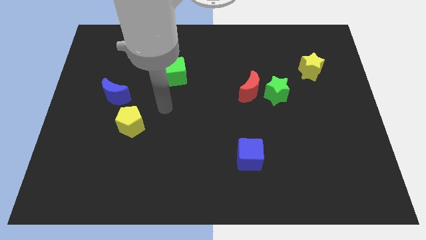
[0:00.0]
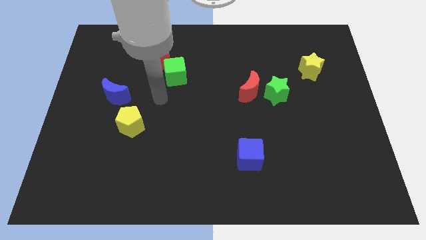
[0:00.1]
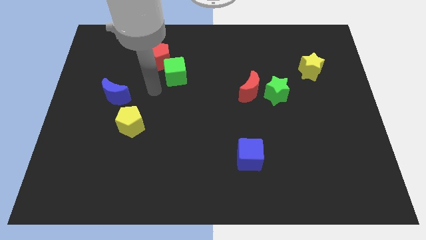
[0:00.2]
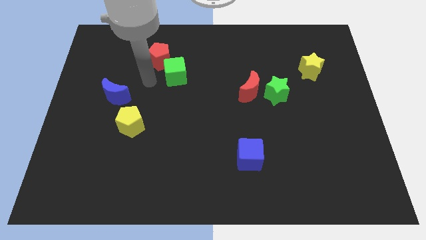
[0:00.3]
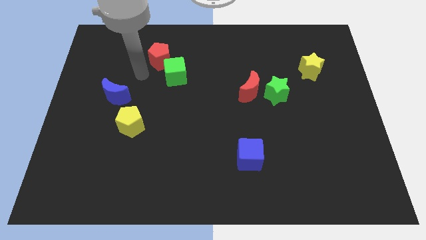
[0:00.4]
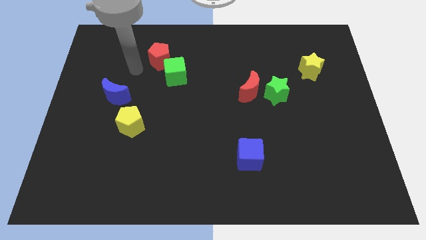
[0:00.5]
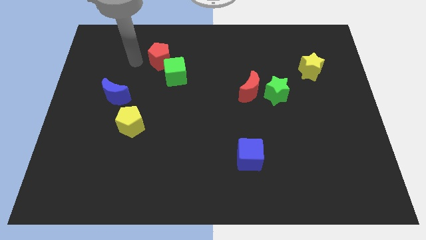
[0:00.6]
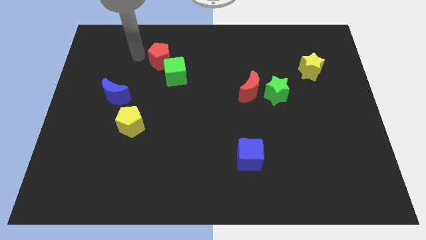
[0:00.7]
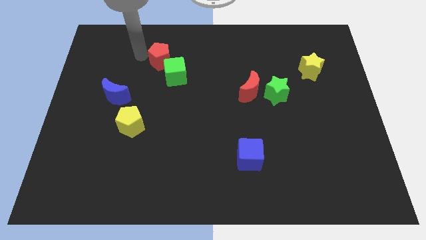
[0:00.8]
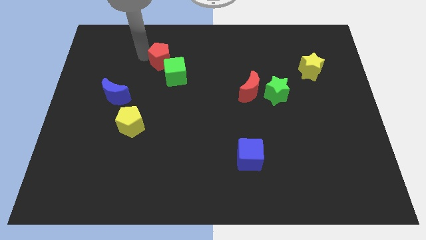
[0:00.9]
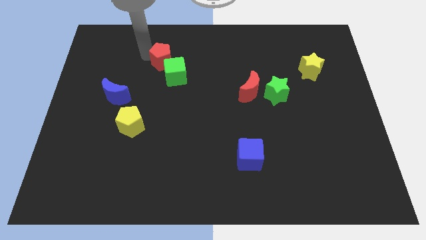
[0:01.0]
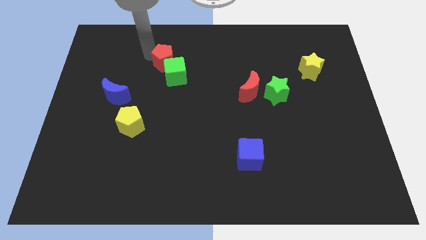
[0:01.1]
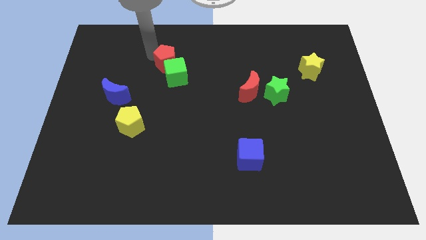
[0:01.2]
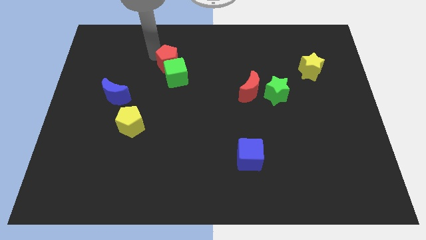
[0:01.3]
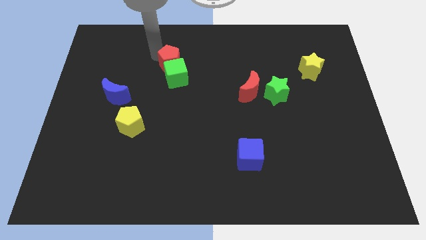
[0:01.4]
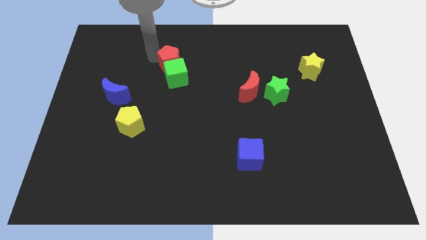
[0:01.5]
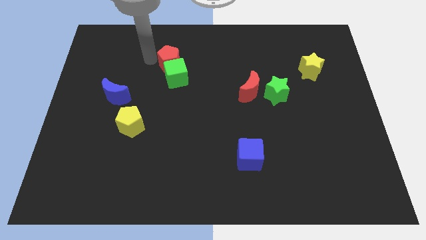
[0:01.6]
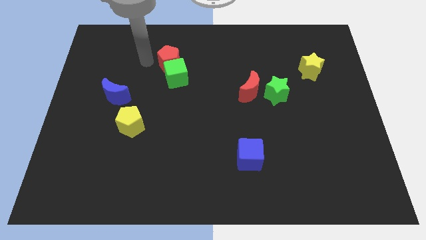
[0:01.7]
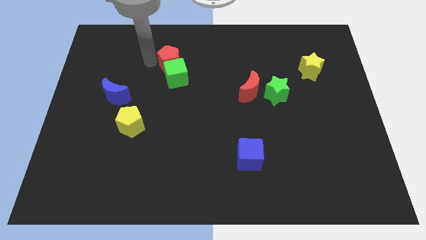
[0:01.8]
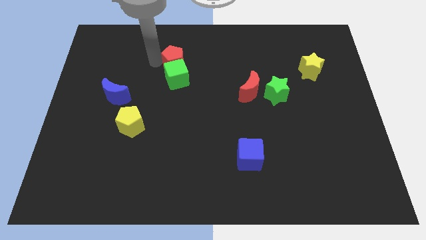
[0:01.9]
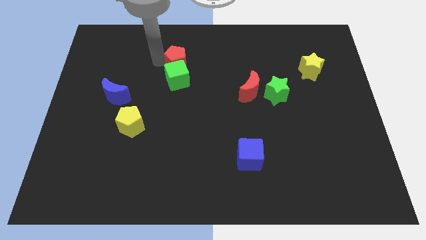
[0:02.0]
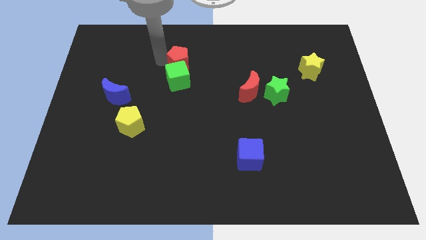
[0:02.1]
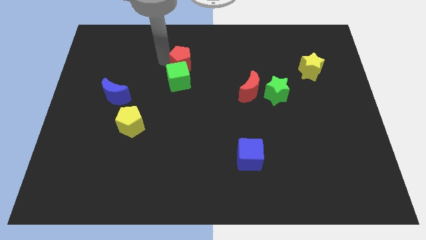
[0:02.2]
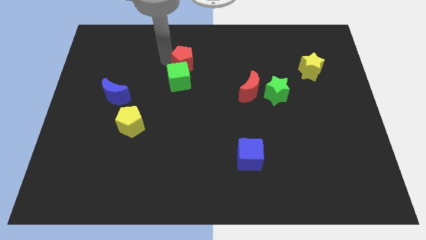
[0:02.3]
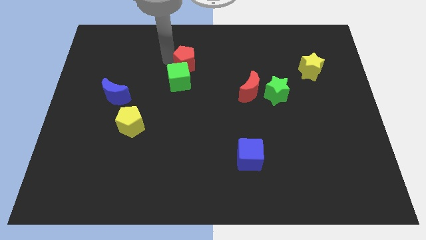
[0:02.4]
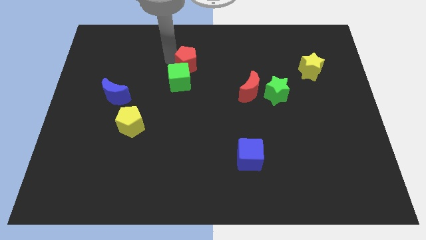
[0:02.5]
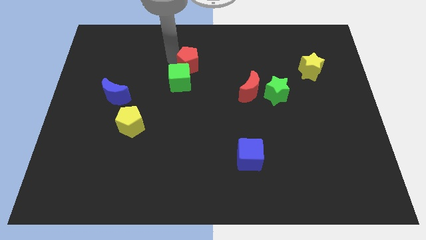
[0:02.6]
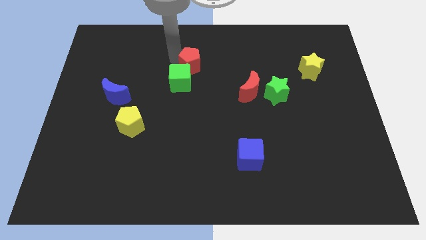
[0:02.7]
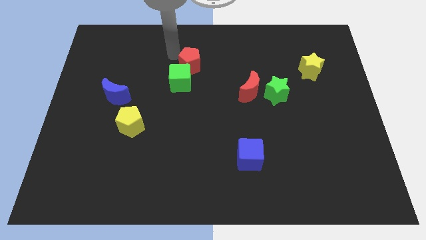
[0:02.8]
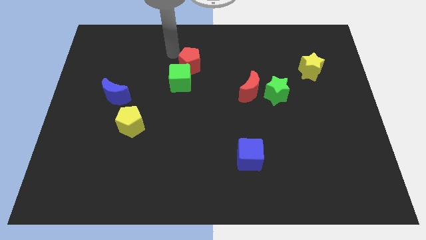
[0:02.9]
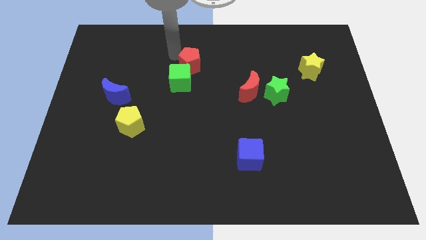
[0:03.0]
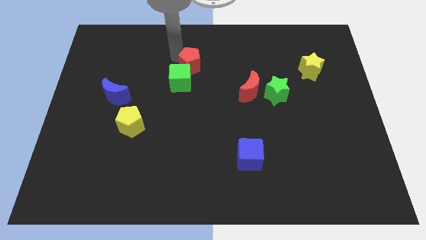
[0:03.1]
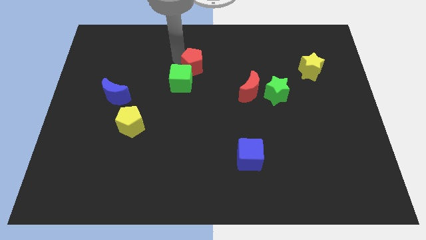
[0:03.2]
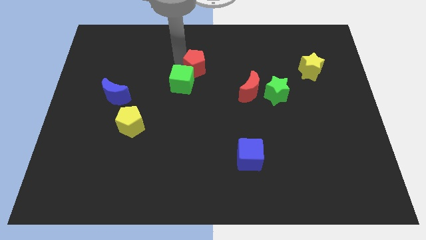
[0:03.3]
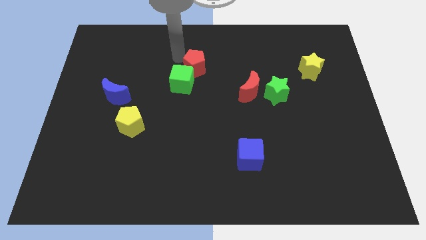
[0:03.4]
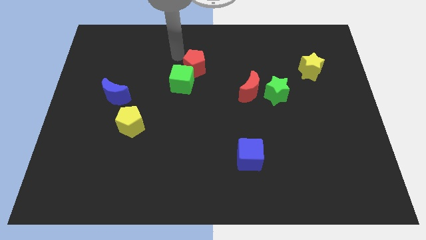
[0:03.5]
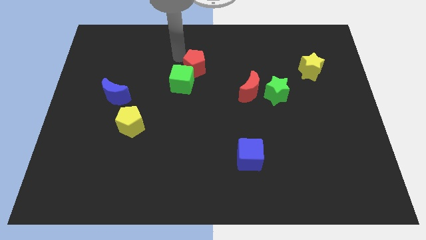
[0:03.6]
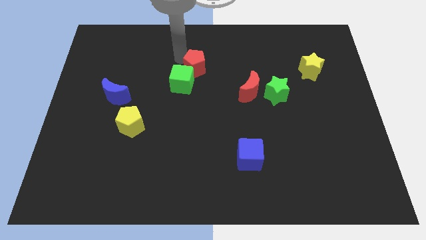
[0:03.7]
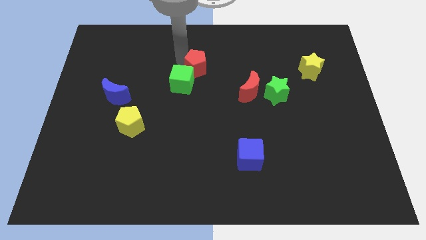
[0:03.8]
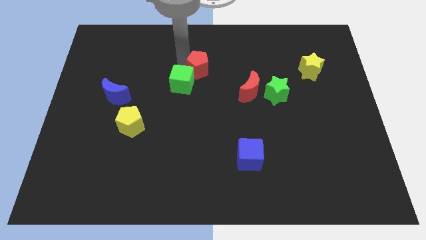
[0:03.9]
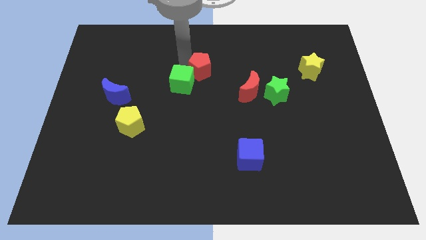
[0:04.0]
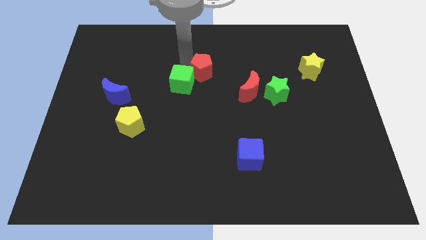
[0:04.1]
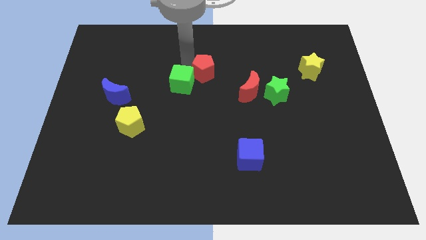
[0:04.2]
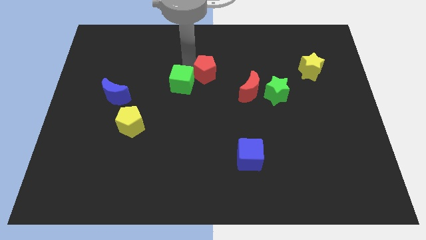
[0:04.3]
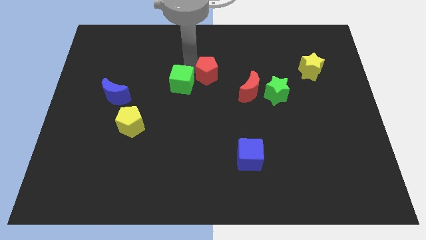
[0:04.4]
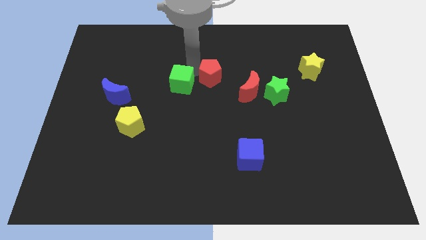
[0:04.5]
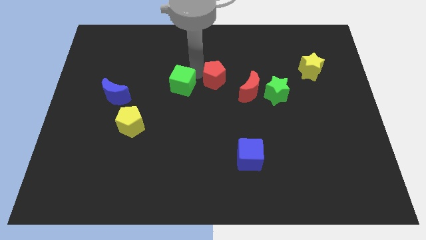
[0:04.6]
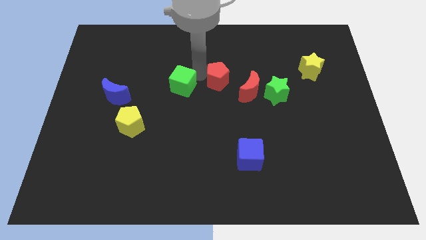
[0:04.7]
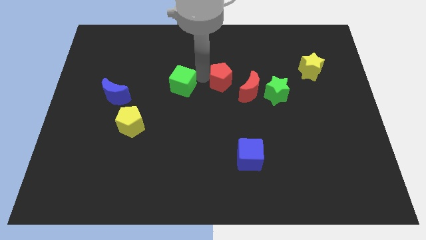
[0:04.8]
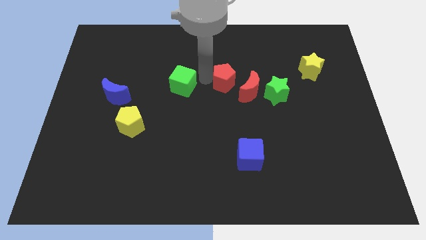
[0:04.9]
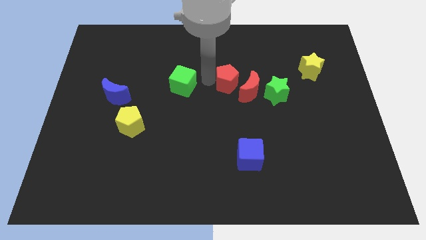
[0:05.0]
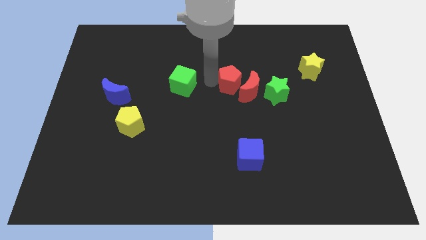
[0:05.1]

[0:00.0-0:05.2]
push the red pentagon towards the red moon

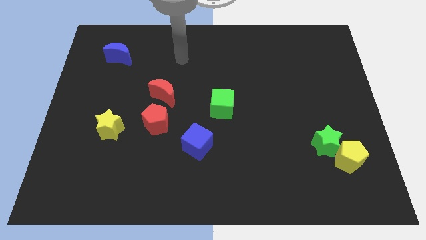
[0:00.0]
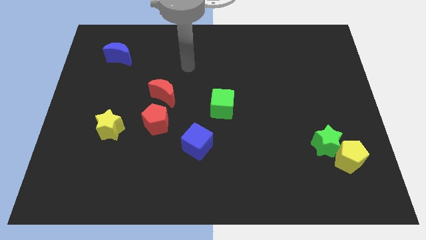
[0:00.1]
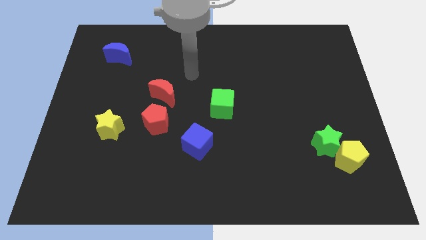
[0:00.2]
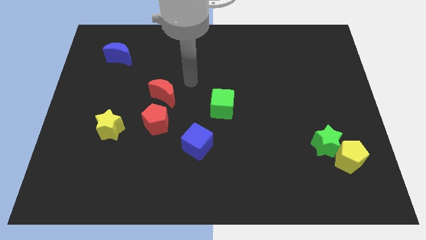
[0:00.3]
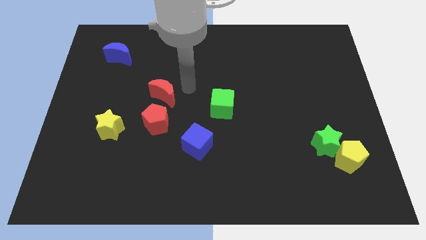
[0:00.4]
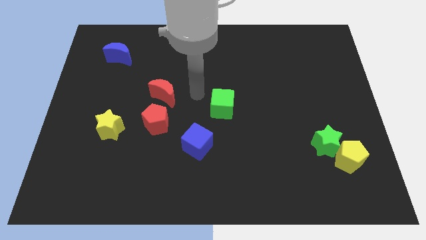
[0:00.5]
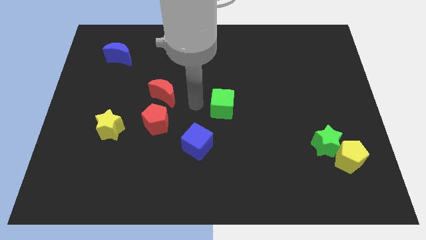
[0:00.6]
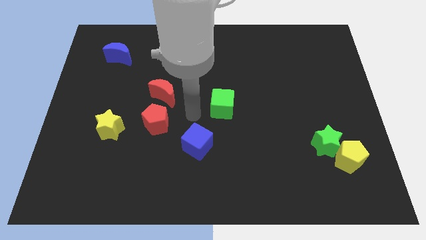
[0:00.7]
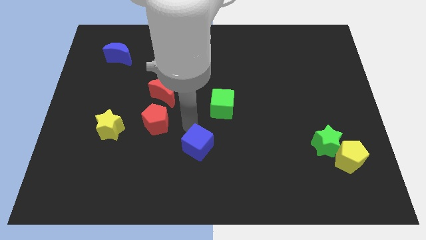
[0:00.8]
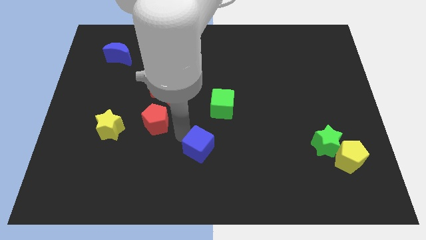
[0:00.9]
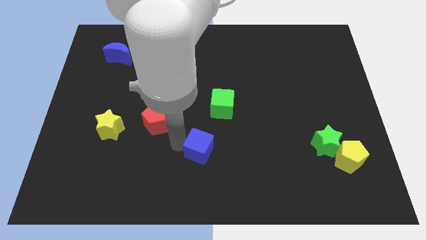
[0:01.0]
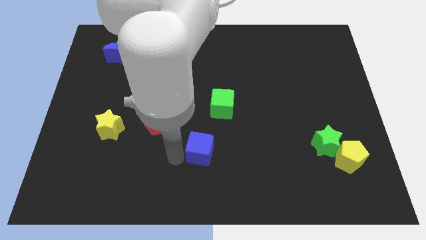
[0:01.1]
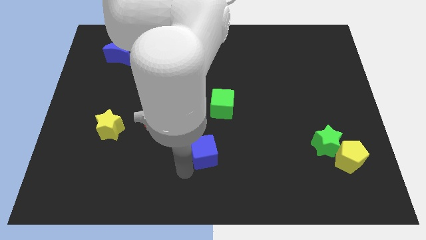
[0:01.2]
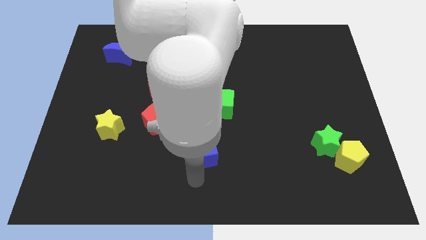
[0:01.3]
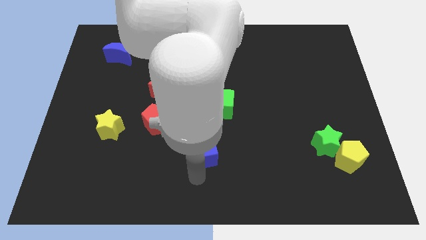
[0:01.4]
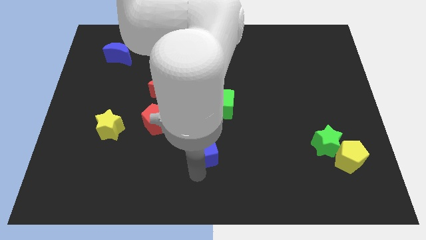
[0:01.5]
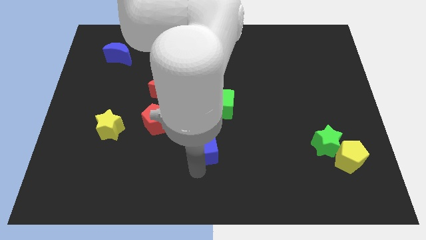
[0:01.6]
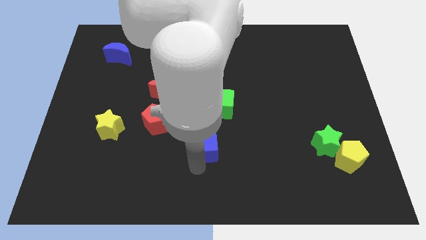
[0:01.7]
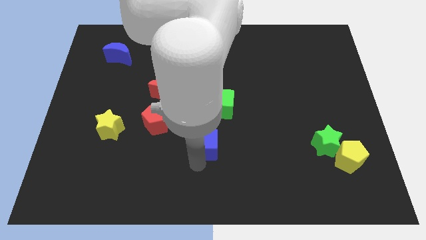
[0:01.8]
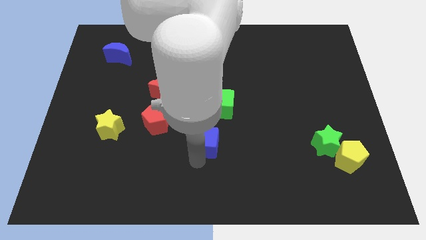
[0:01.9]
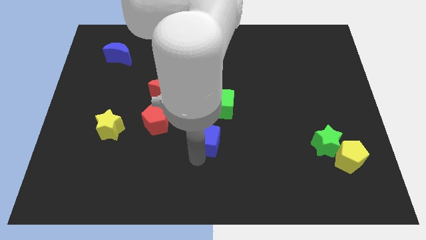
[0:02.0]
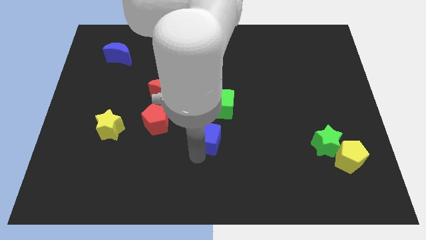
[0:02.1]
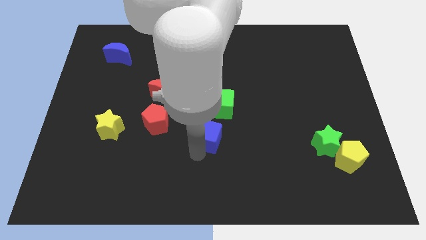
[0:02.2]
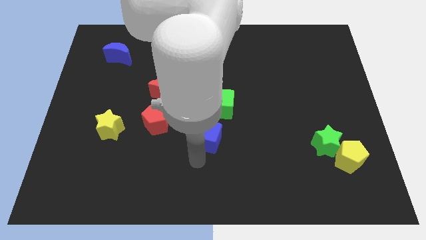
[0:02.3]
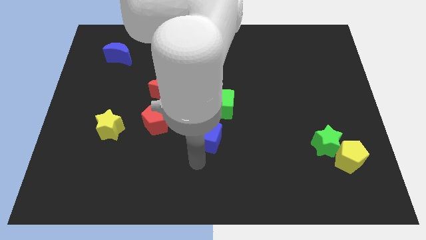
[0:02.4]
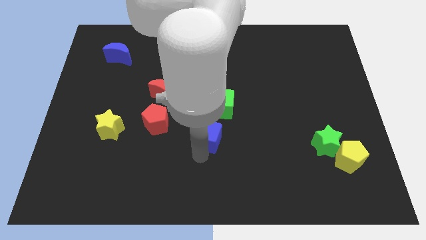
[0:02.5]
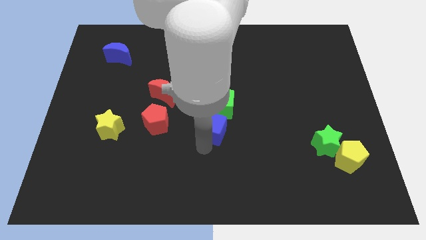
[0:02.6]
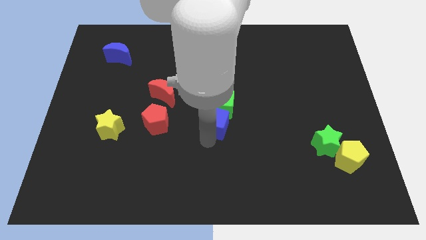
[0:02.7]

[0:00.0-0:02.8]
put the blue cube next to the green cube
